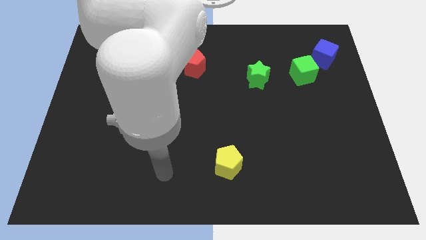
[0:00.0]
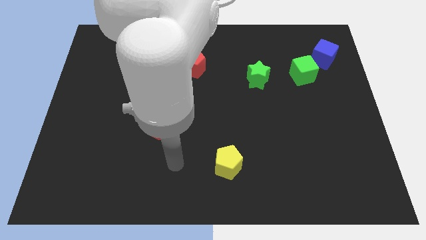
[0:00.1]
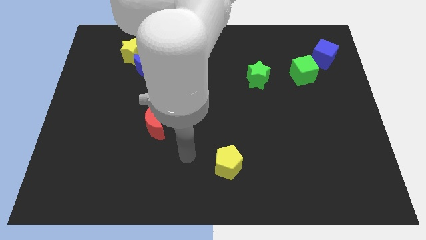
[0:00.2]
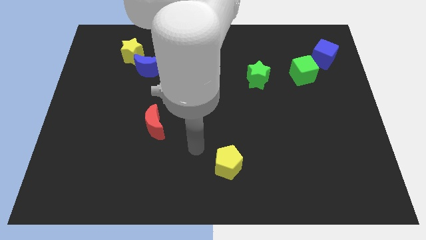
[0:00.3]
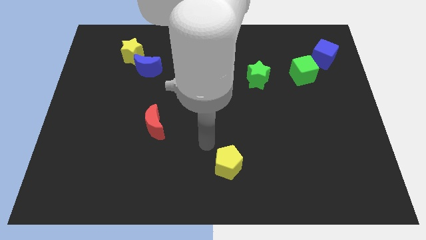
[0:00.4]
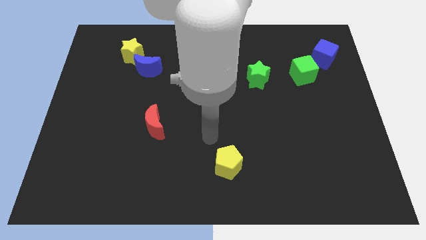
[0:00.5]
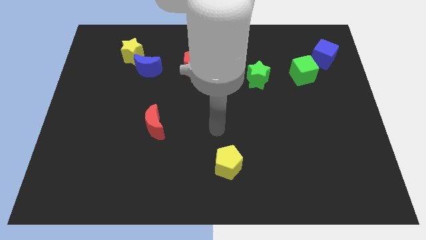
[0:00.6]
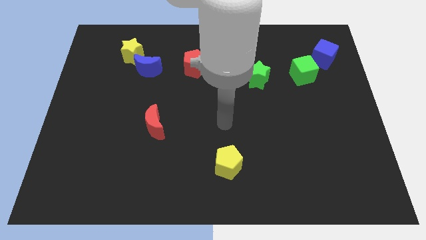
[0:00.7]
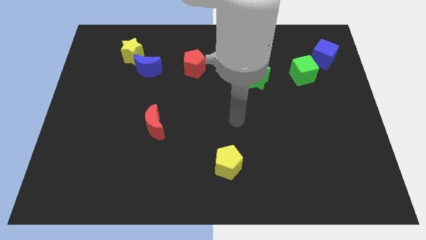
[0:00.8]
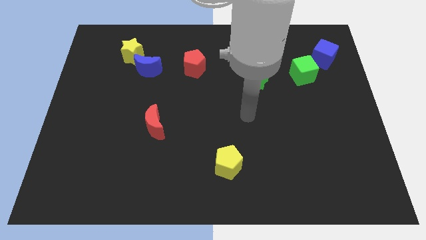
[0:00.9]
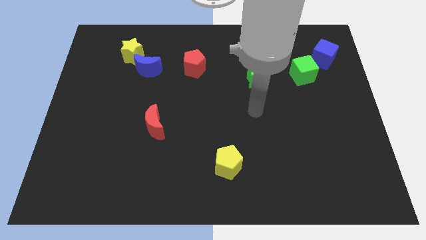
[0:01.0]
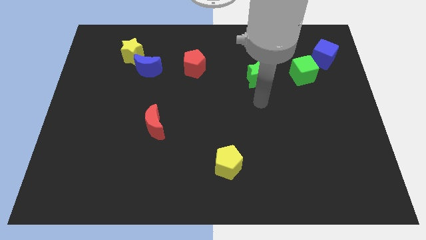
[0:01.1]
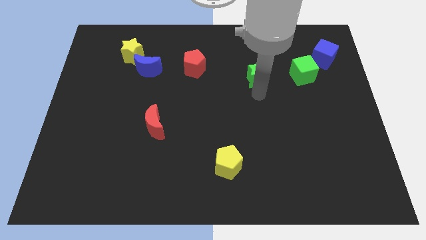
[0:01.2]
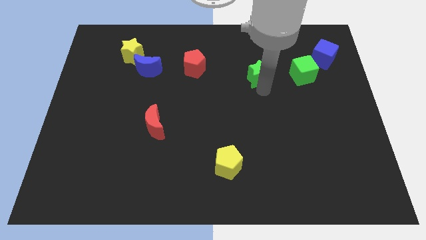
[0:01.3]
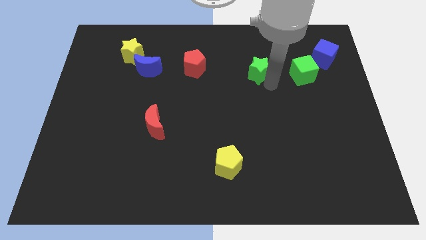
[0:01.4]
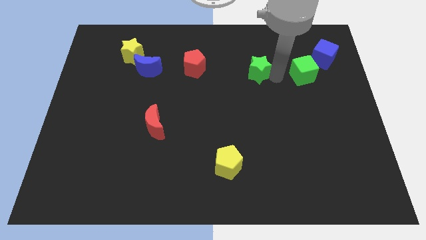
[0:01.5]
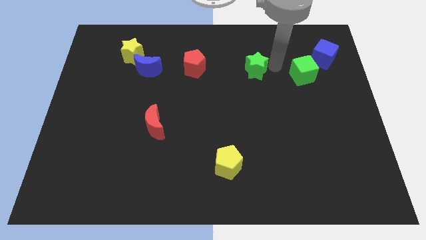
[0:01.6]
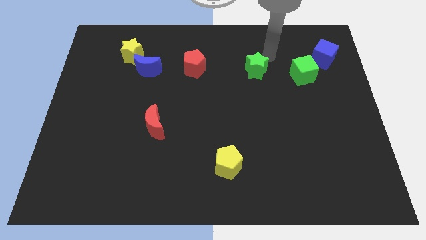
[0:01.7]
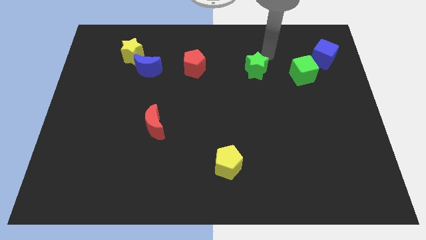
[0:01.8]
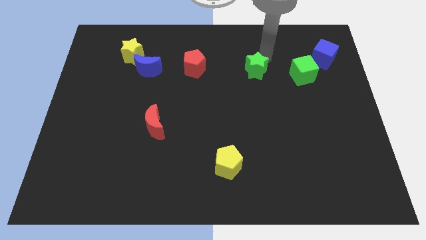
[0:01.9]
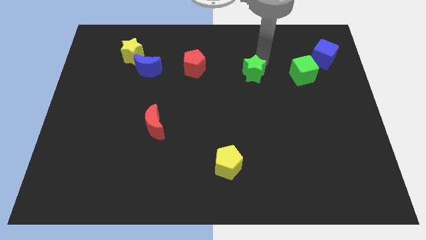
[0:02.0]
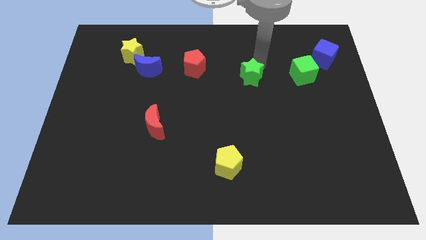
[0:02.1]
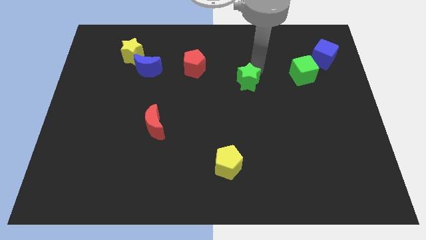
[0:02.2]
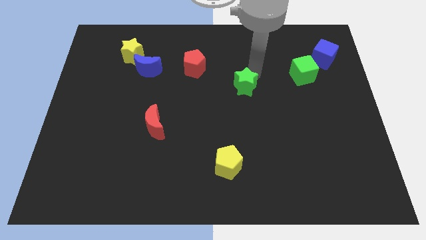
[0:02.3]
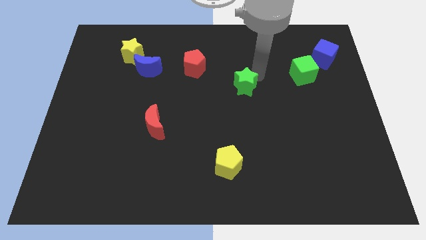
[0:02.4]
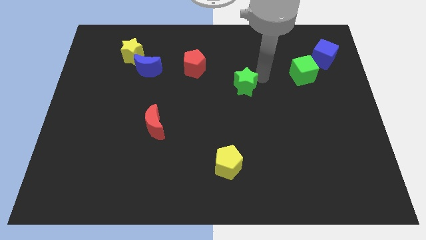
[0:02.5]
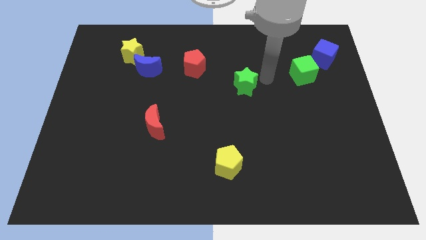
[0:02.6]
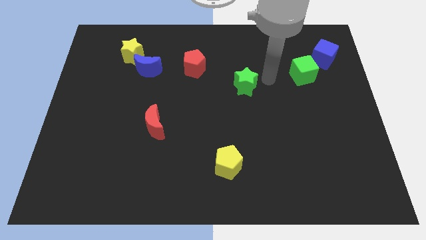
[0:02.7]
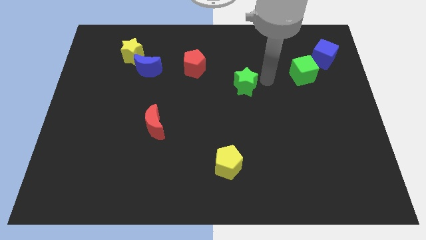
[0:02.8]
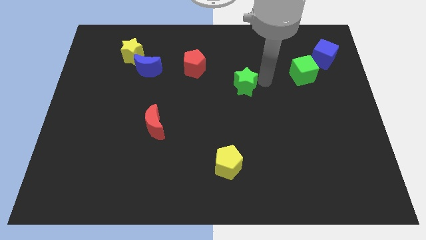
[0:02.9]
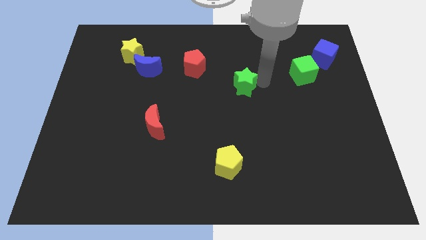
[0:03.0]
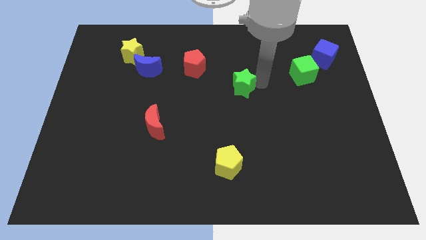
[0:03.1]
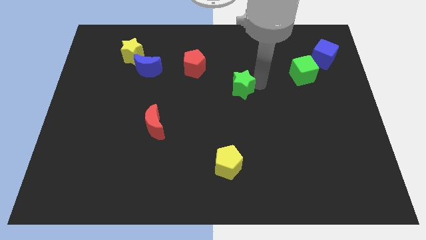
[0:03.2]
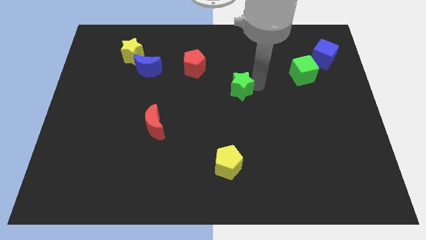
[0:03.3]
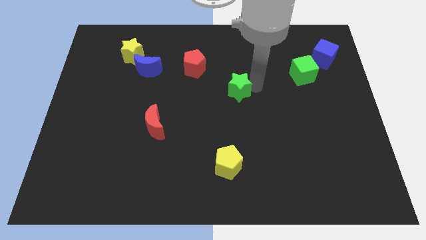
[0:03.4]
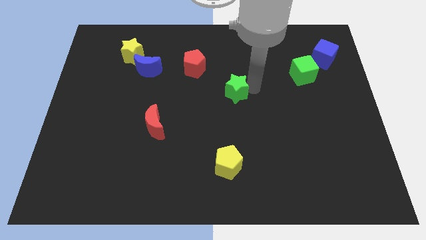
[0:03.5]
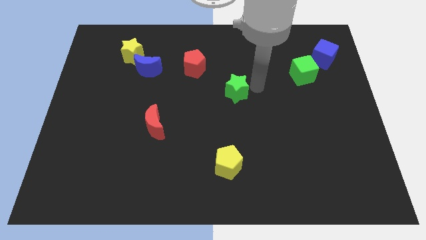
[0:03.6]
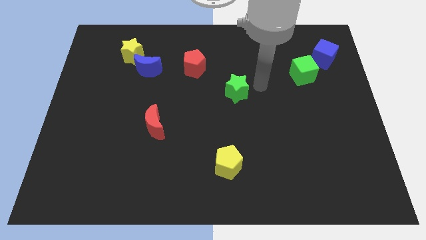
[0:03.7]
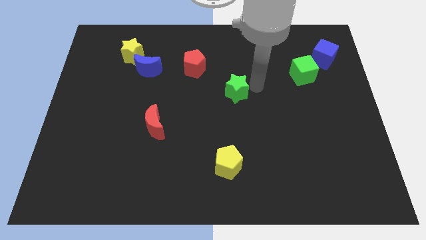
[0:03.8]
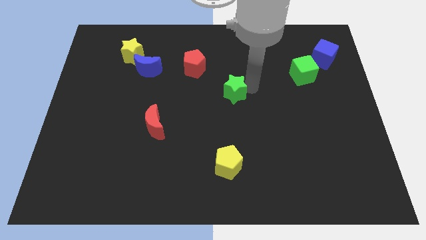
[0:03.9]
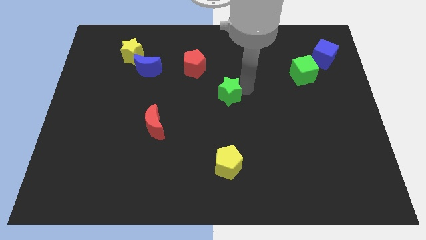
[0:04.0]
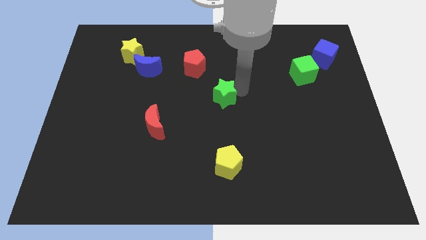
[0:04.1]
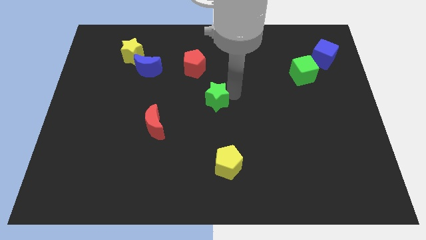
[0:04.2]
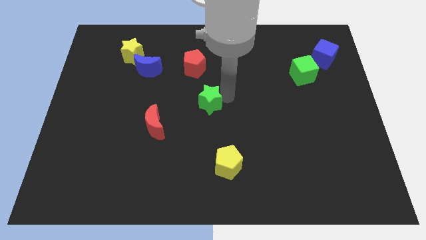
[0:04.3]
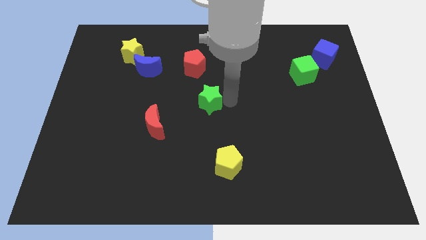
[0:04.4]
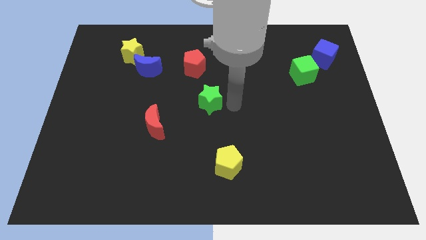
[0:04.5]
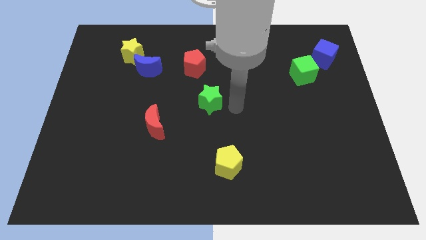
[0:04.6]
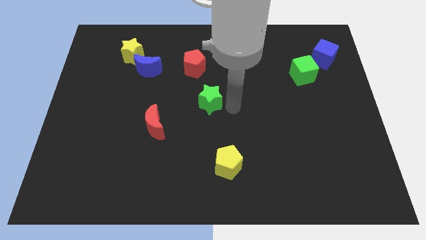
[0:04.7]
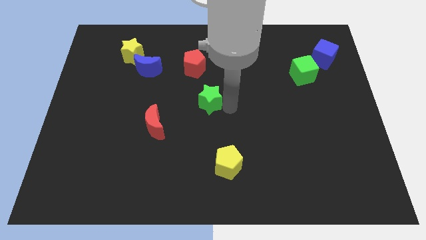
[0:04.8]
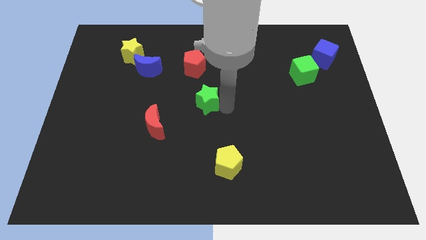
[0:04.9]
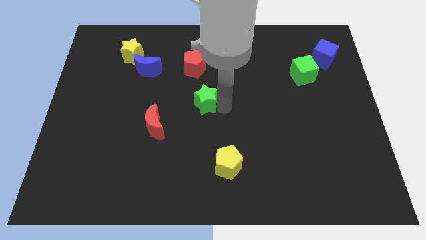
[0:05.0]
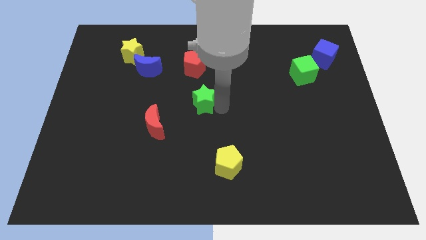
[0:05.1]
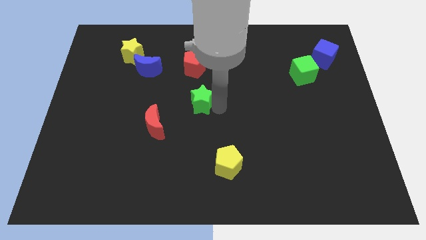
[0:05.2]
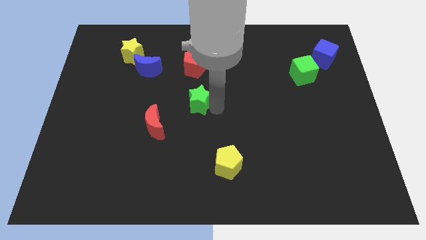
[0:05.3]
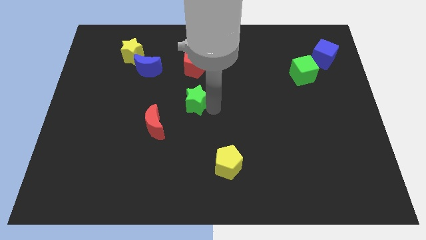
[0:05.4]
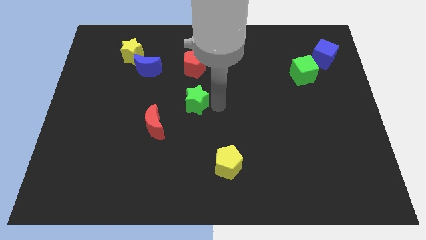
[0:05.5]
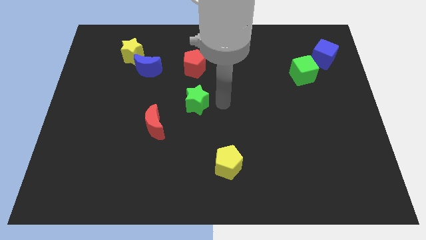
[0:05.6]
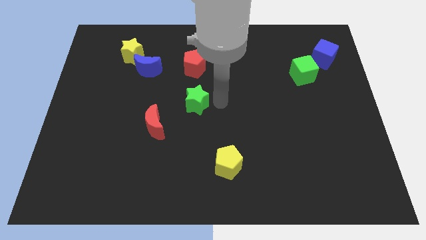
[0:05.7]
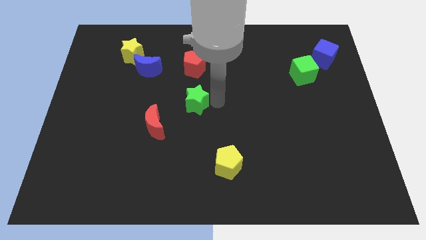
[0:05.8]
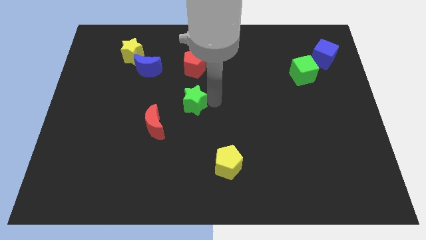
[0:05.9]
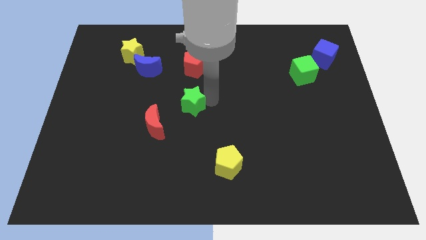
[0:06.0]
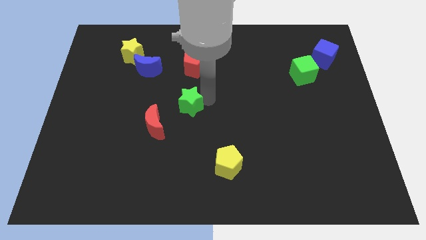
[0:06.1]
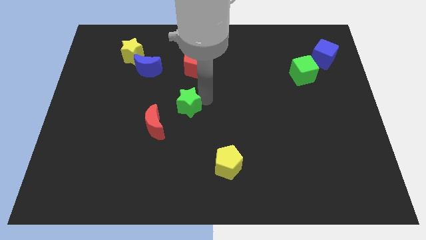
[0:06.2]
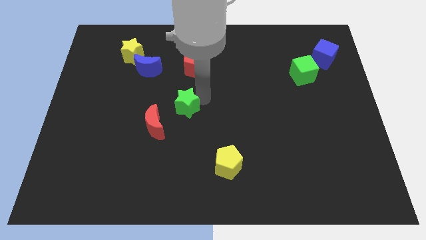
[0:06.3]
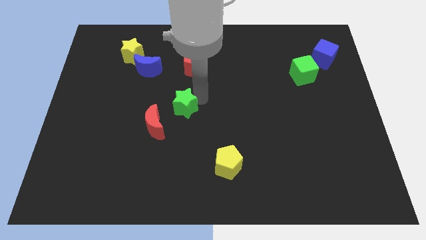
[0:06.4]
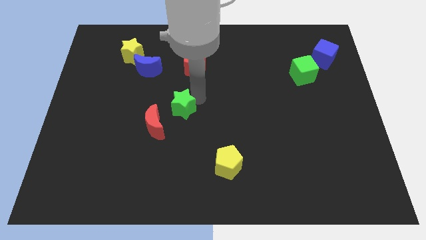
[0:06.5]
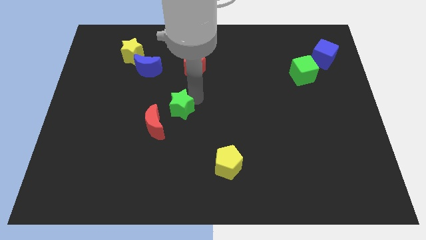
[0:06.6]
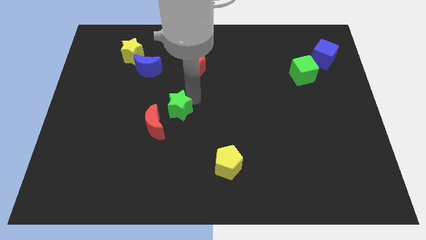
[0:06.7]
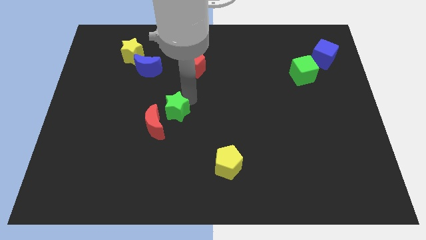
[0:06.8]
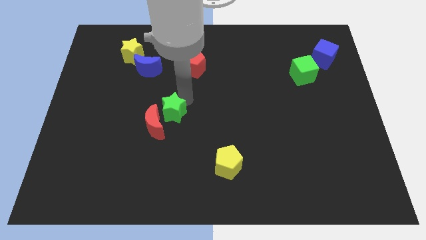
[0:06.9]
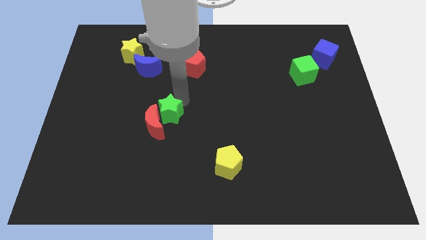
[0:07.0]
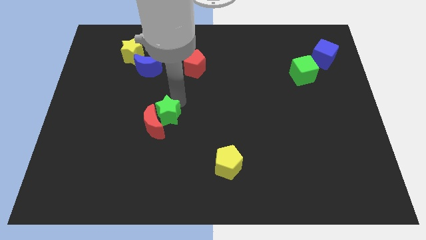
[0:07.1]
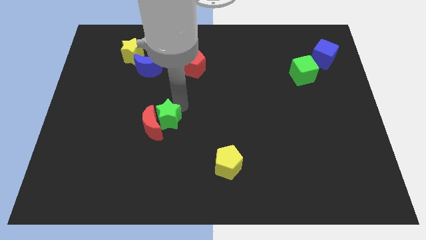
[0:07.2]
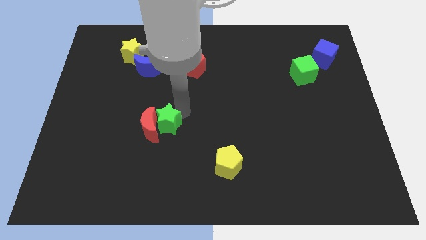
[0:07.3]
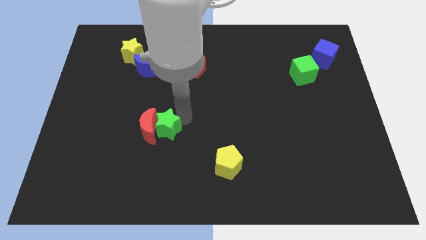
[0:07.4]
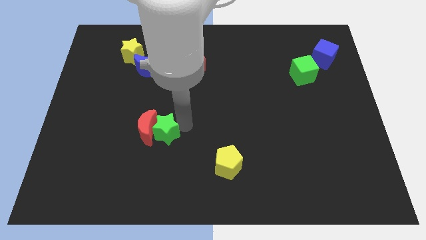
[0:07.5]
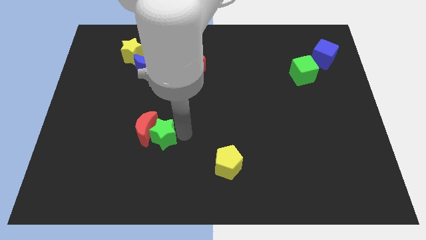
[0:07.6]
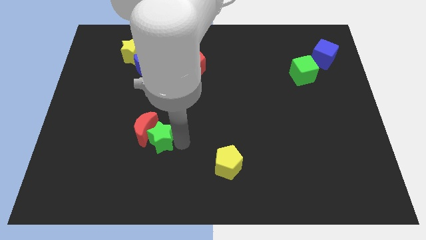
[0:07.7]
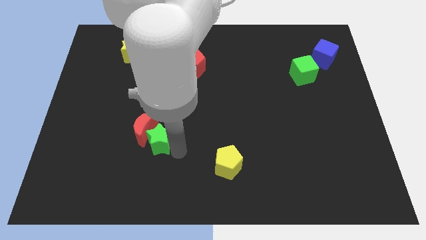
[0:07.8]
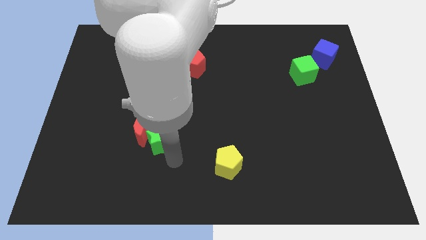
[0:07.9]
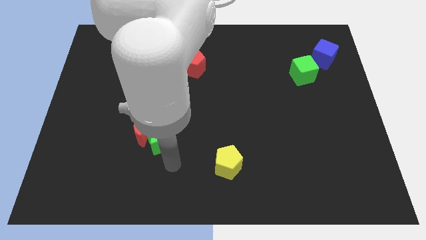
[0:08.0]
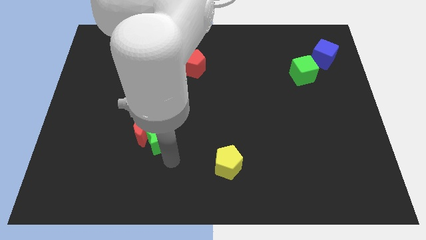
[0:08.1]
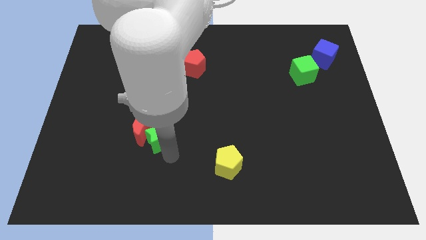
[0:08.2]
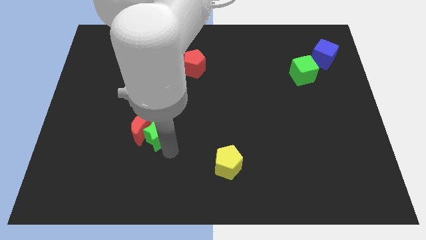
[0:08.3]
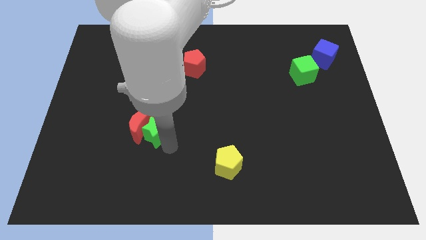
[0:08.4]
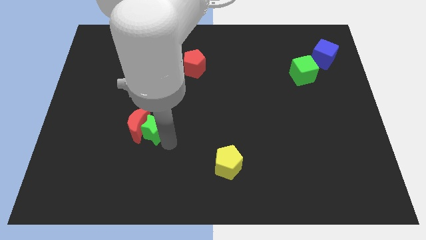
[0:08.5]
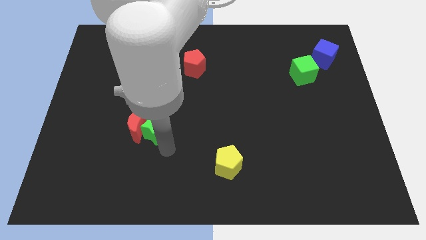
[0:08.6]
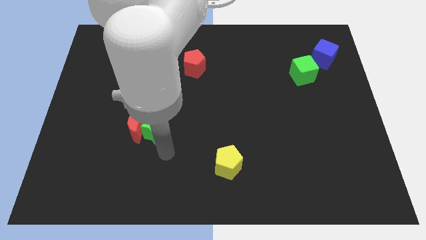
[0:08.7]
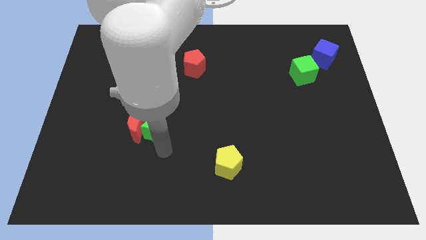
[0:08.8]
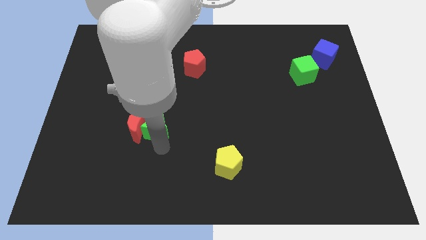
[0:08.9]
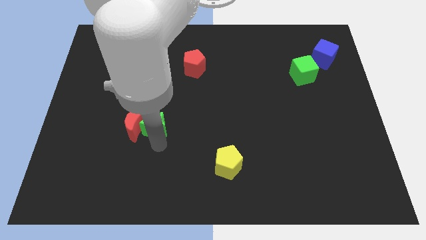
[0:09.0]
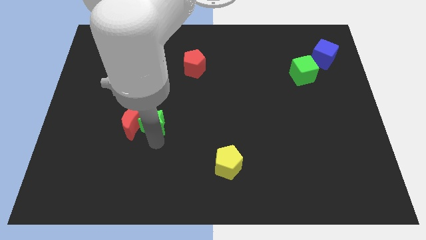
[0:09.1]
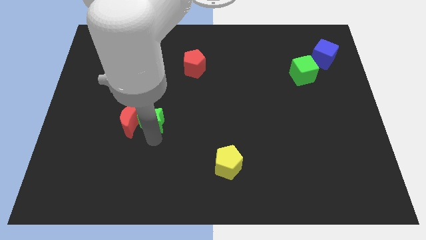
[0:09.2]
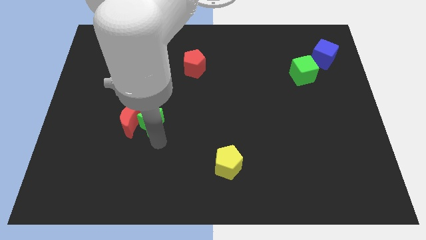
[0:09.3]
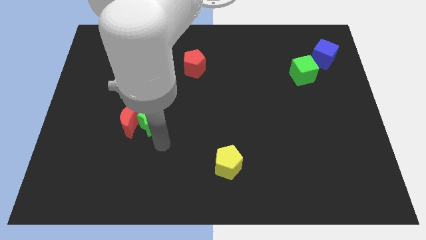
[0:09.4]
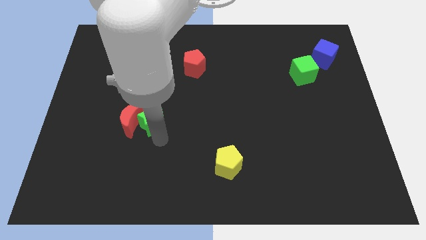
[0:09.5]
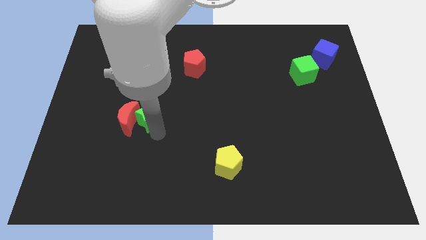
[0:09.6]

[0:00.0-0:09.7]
move the green star below the blue moon
